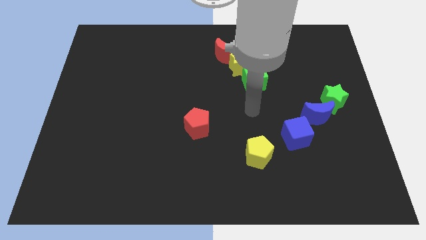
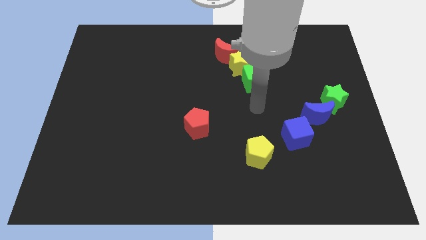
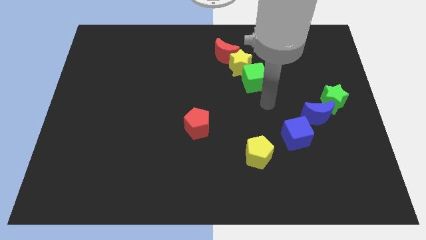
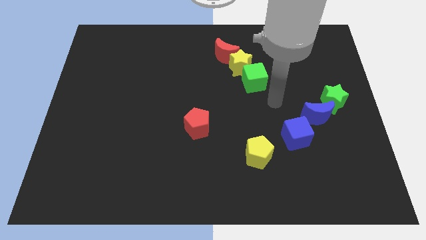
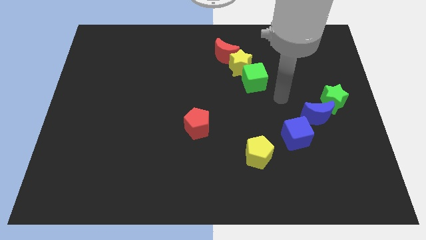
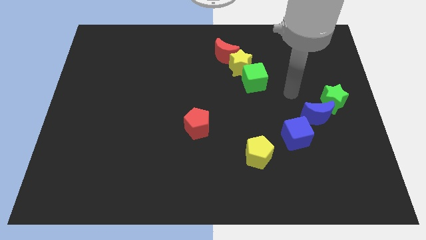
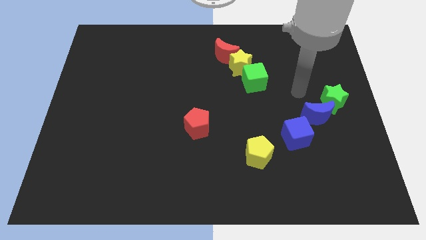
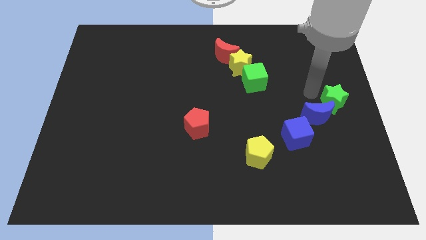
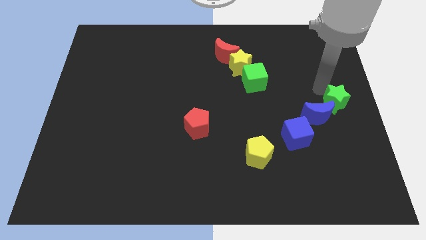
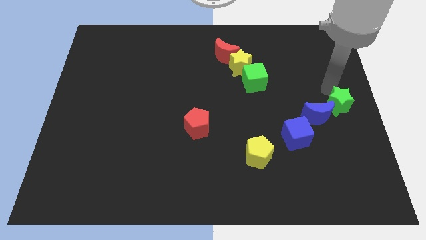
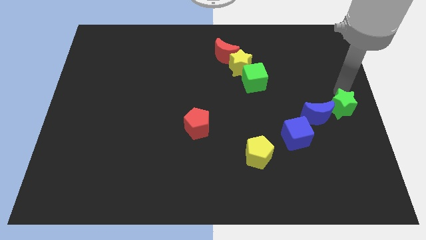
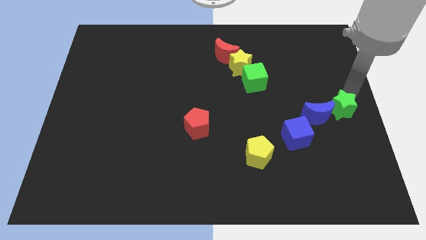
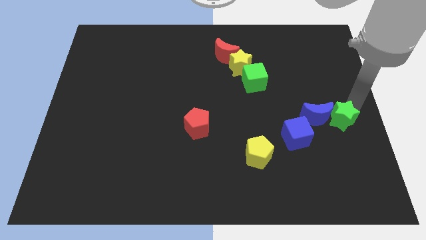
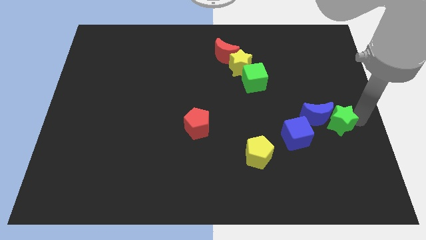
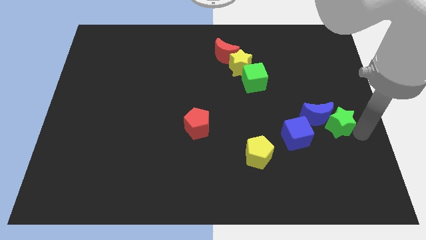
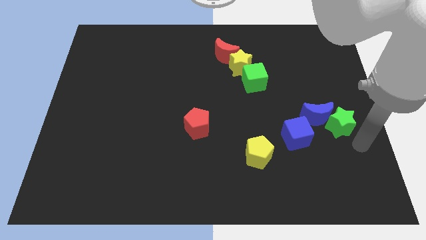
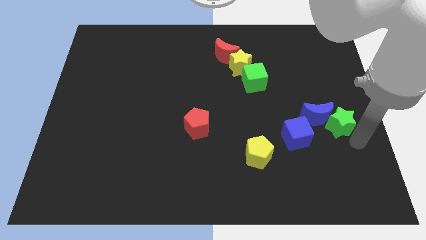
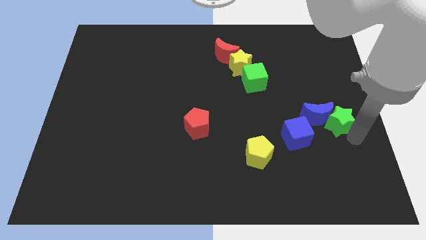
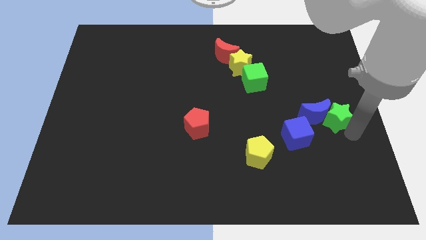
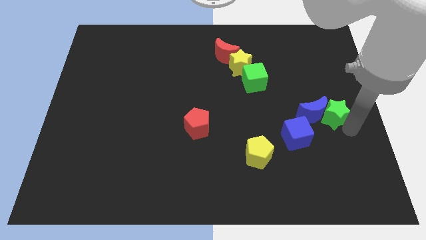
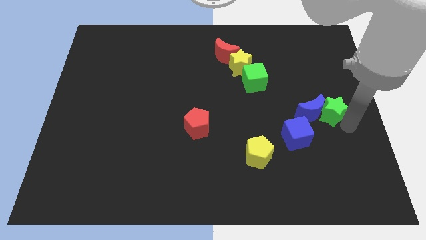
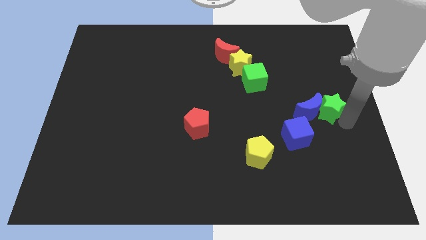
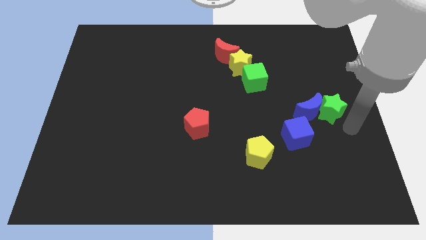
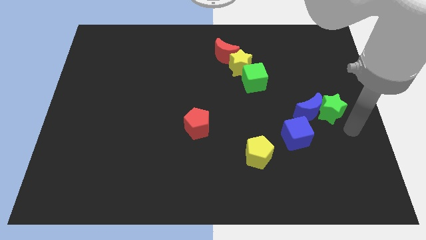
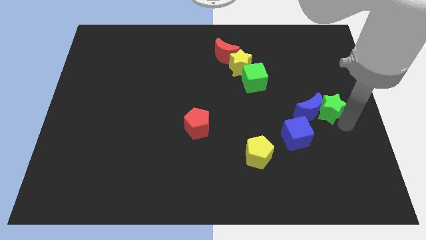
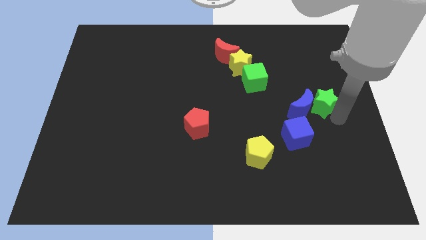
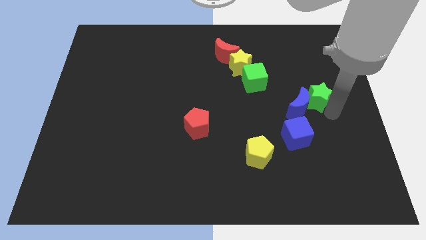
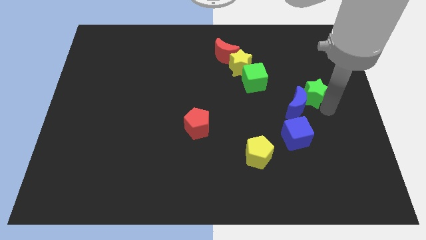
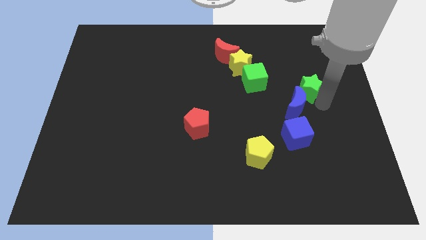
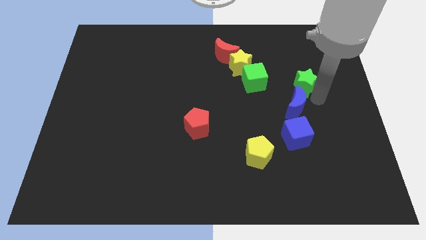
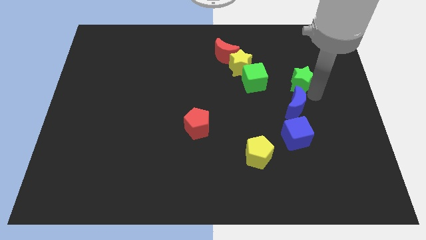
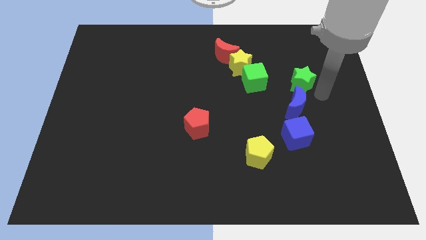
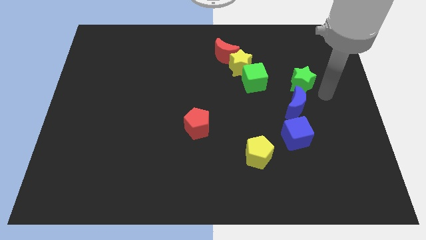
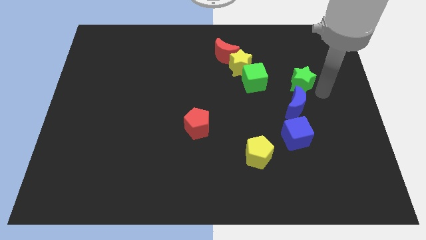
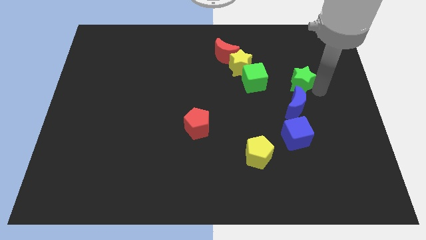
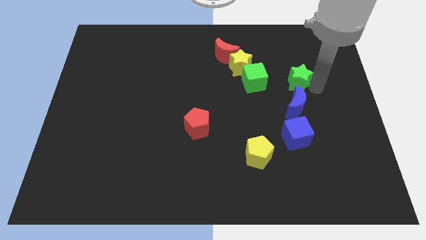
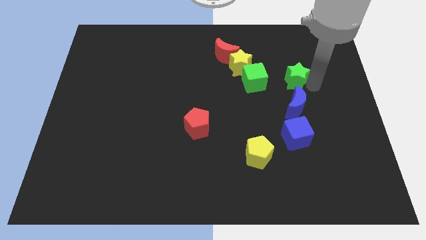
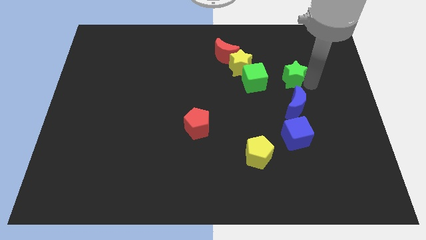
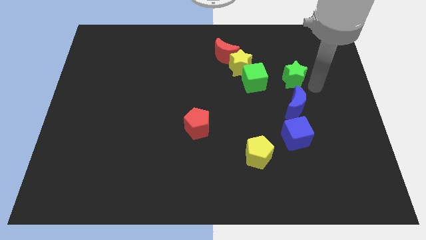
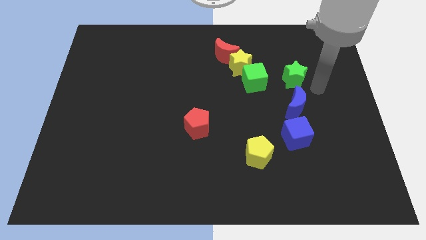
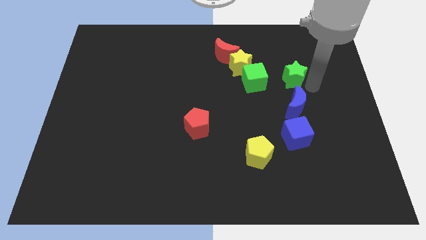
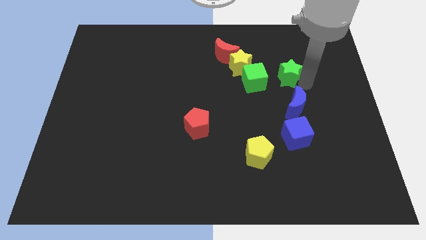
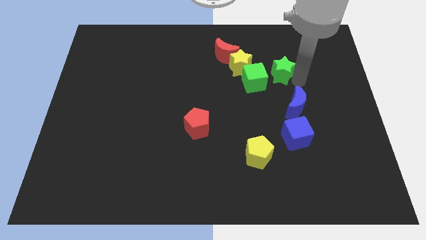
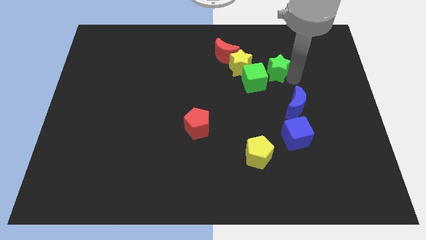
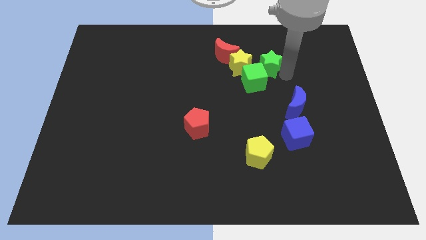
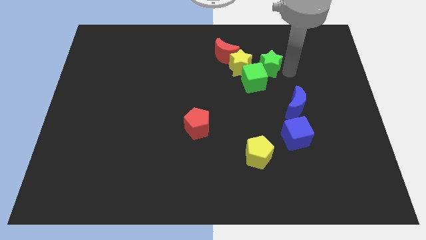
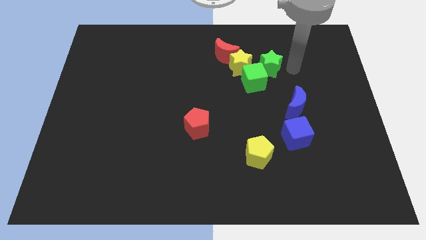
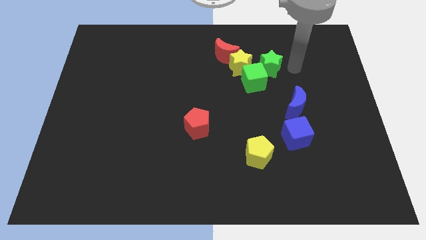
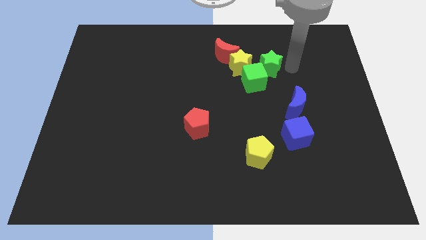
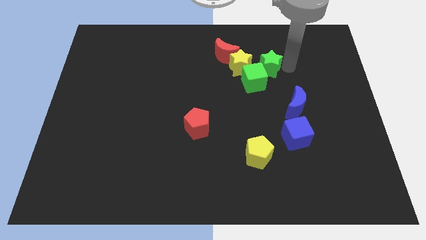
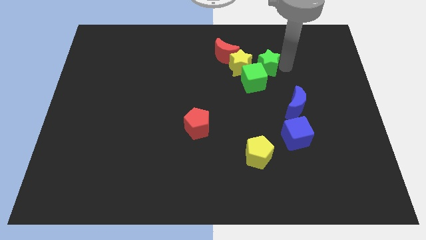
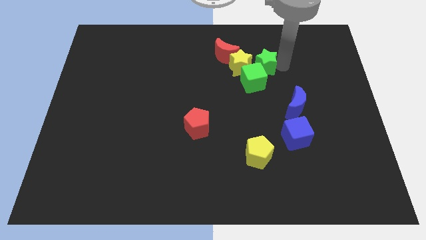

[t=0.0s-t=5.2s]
slide the green star to the yellow star

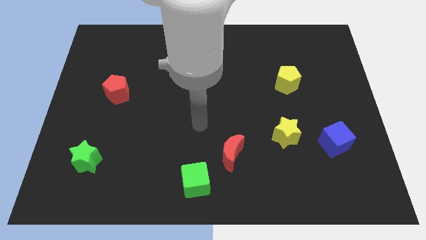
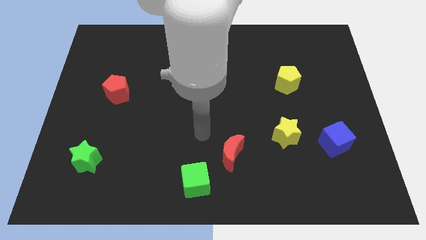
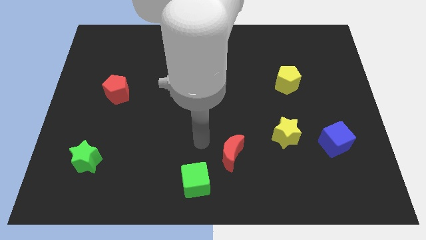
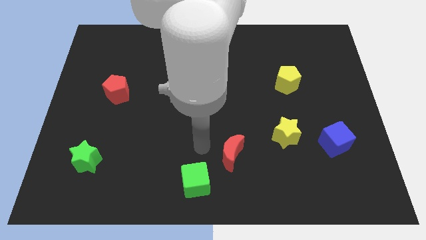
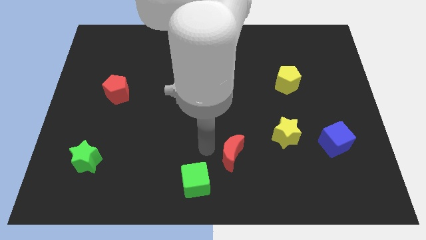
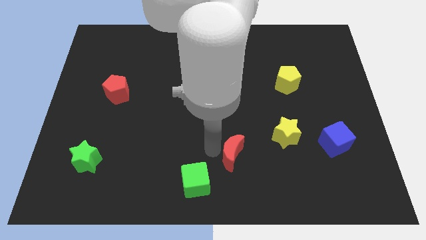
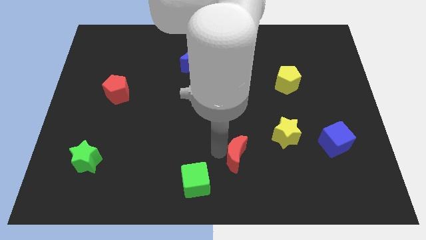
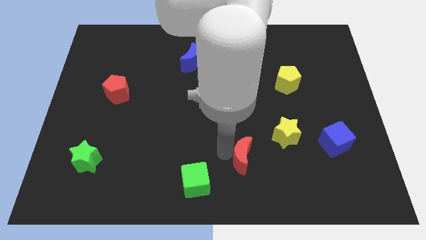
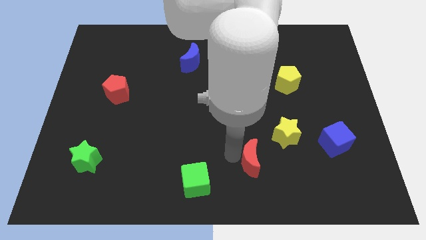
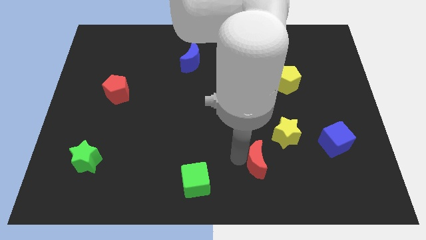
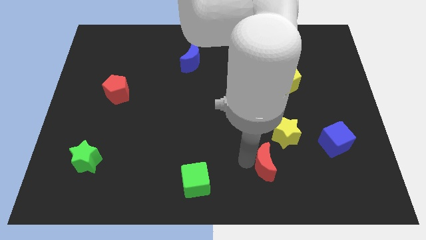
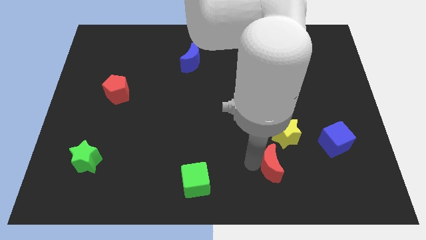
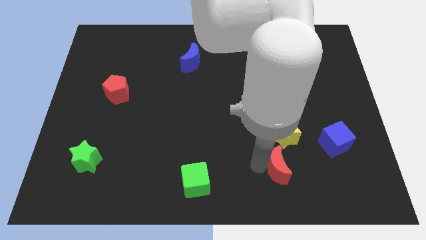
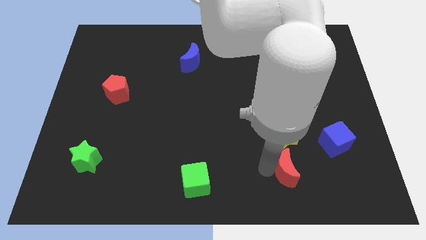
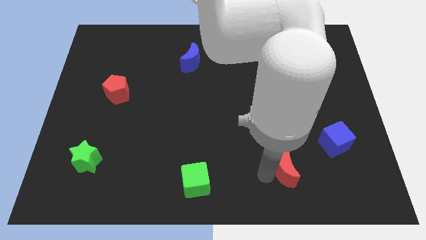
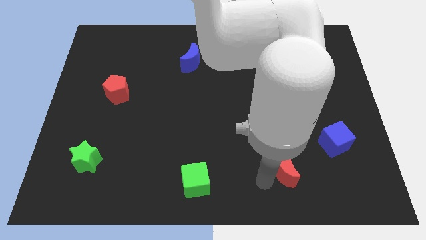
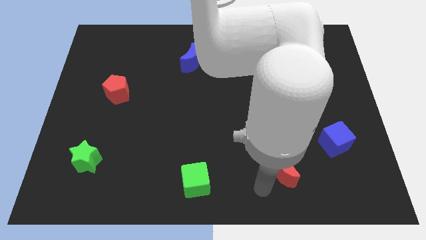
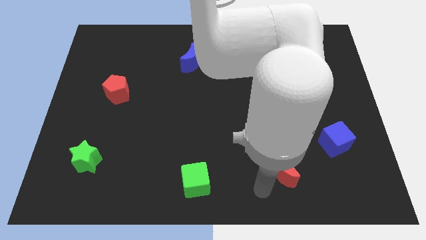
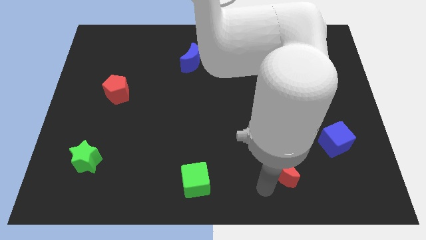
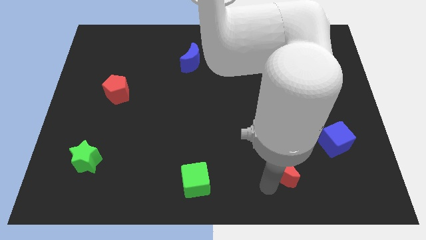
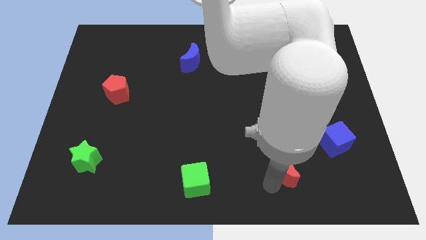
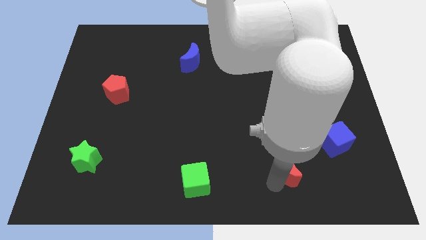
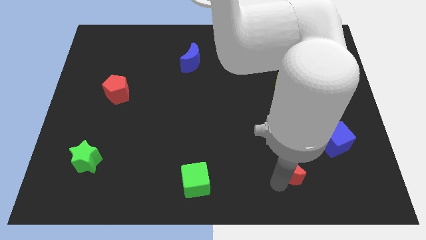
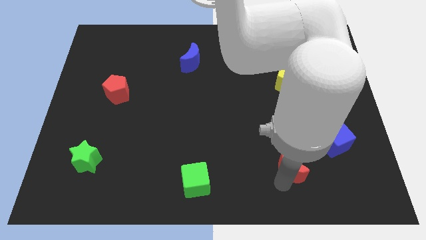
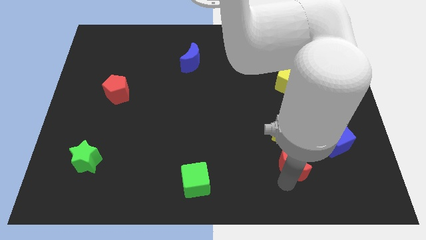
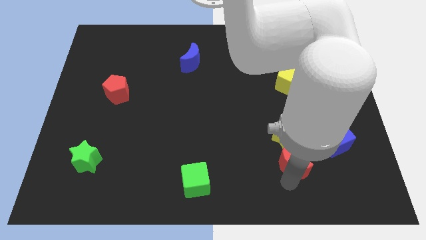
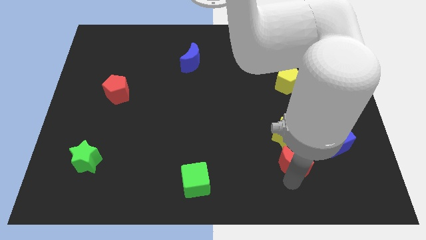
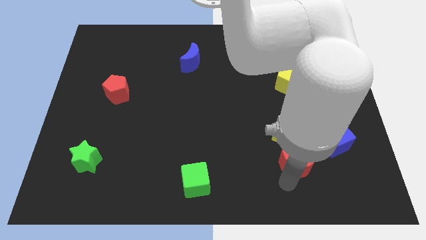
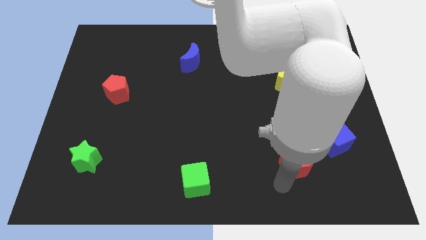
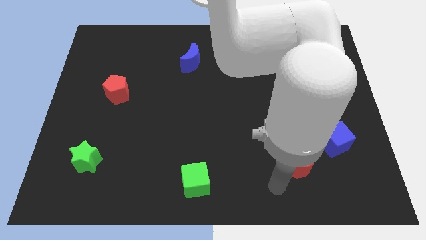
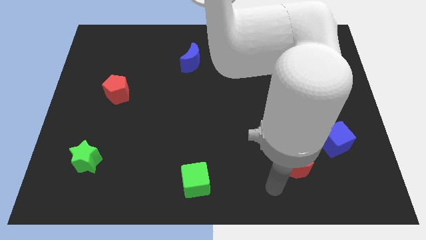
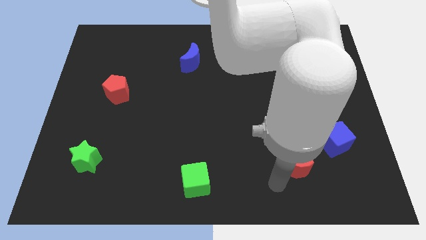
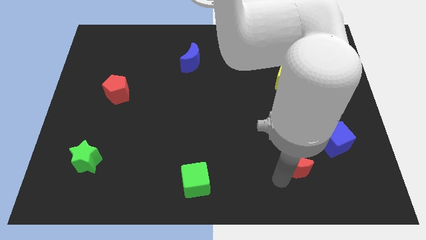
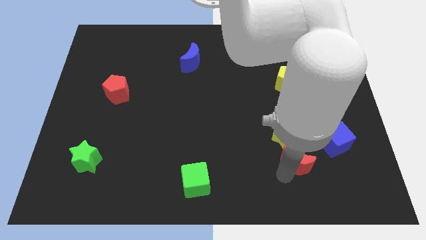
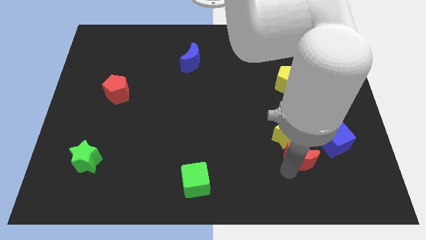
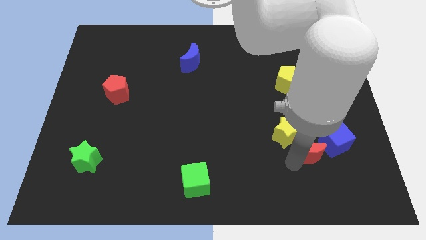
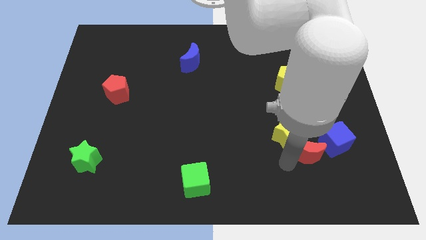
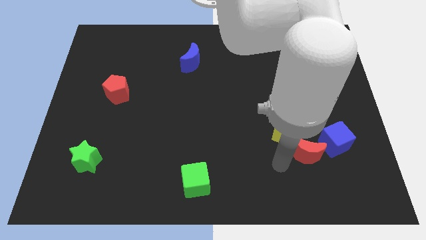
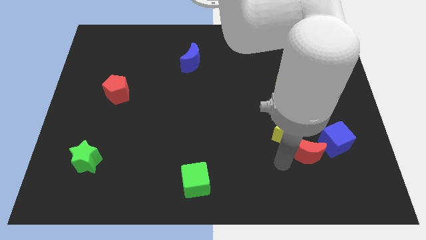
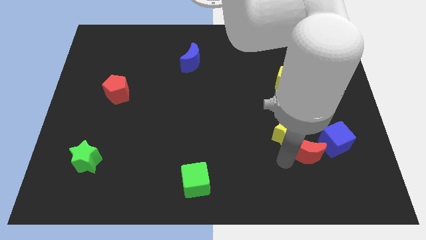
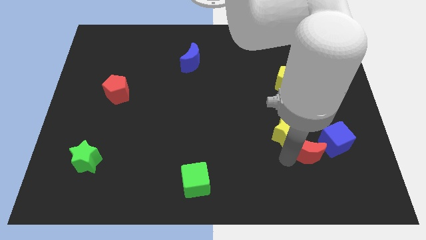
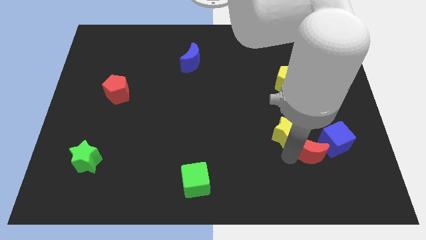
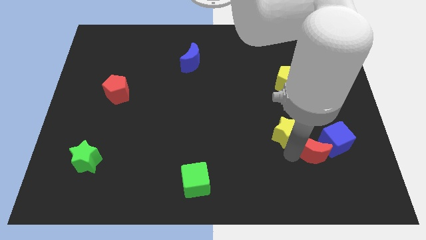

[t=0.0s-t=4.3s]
push the red moon towards the blue cube
